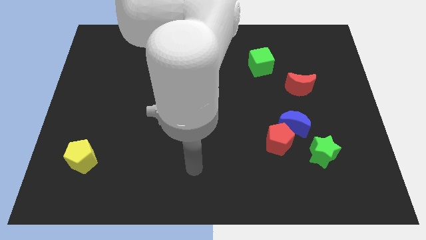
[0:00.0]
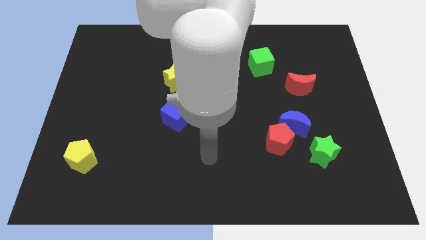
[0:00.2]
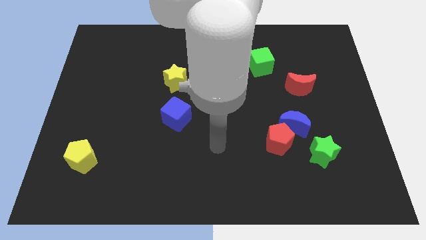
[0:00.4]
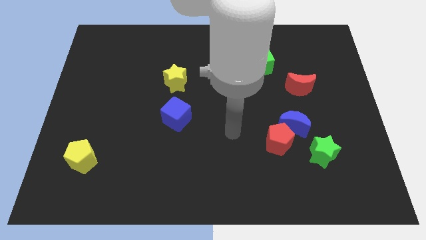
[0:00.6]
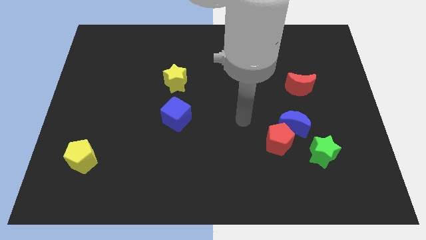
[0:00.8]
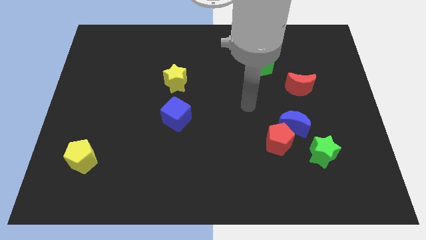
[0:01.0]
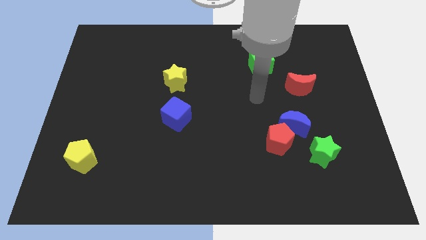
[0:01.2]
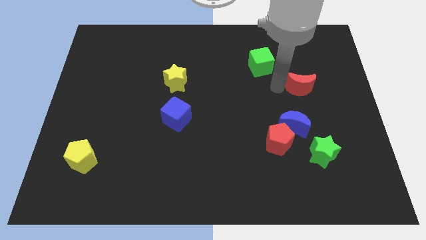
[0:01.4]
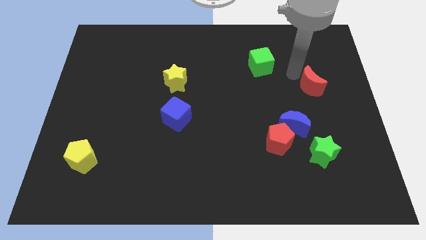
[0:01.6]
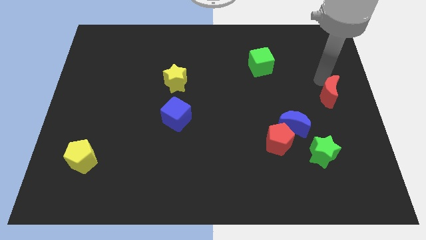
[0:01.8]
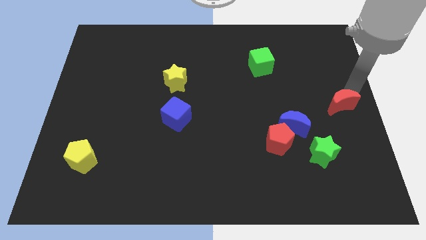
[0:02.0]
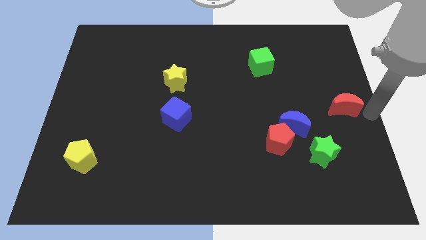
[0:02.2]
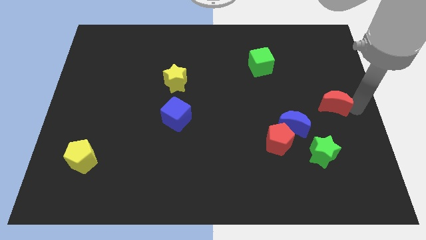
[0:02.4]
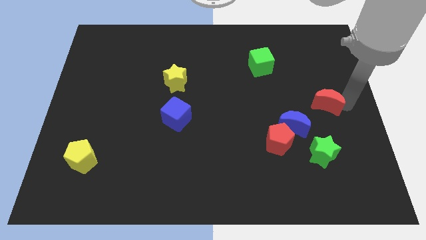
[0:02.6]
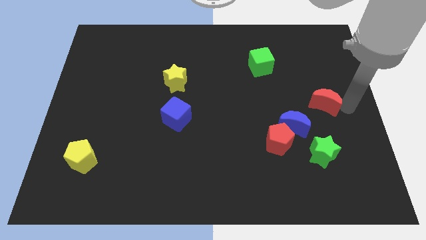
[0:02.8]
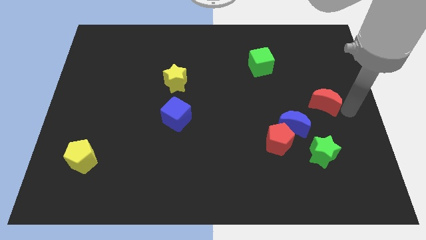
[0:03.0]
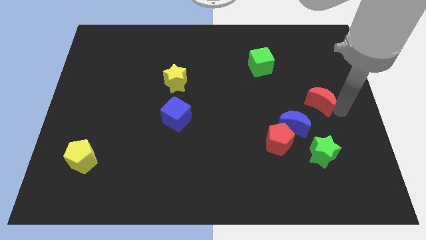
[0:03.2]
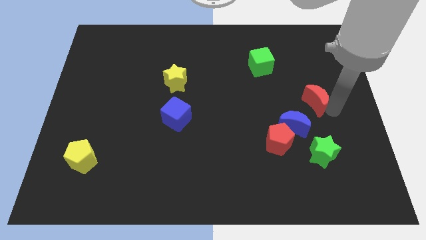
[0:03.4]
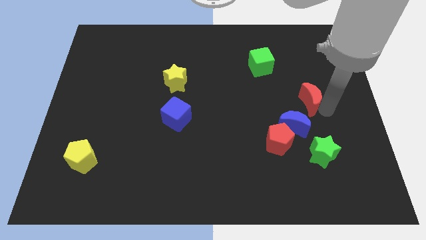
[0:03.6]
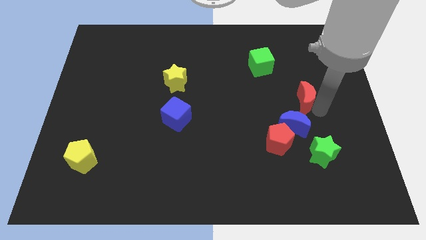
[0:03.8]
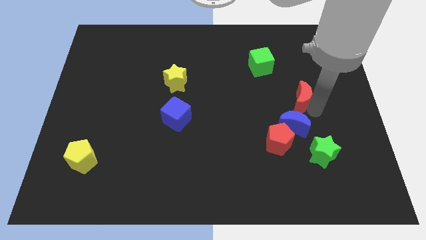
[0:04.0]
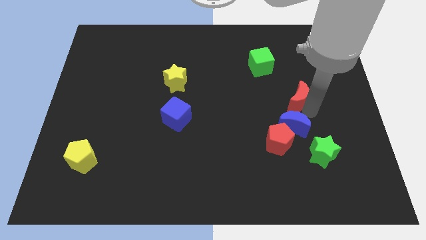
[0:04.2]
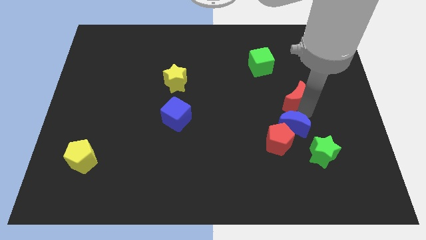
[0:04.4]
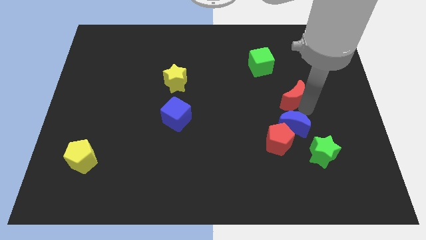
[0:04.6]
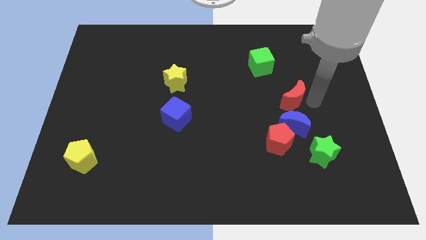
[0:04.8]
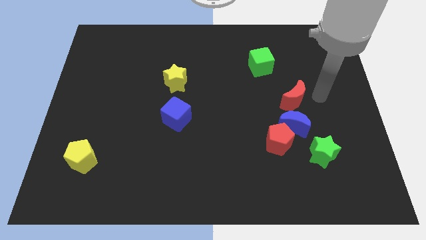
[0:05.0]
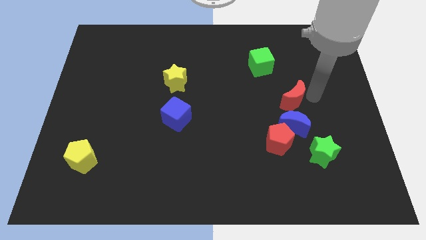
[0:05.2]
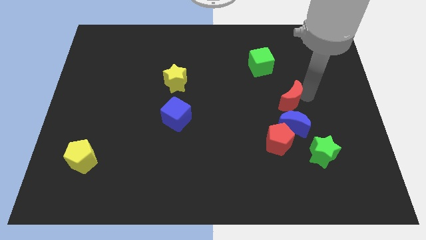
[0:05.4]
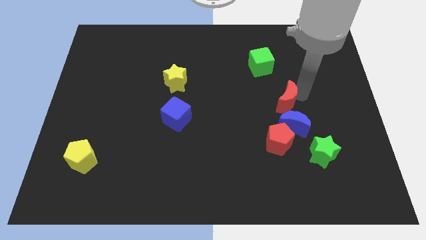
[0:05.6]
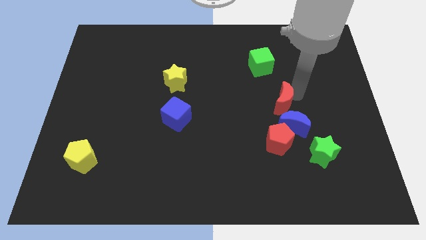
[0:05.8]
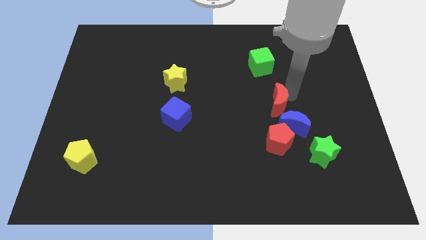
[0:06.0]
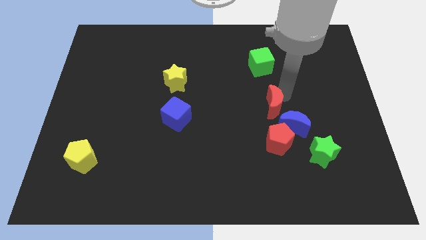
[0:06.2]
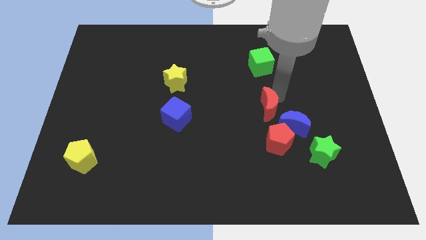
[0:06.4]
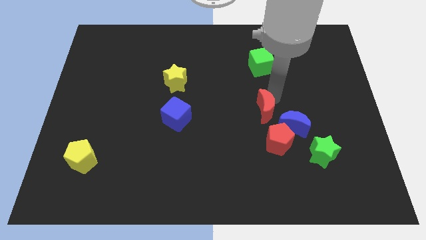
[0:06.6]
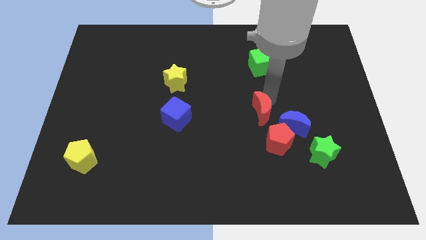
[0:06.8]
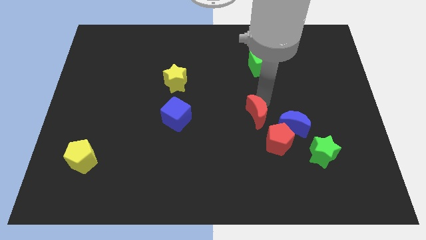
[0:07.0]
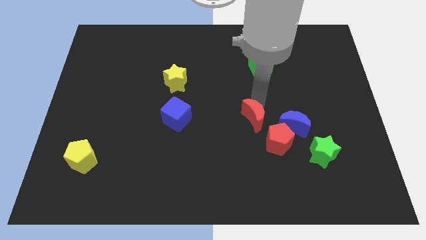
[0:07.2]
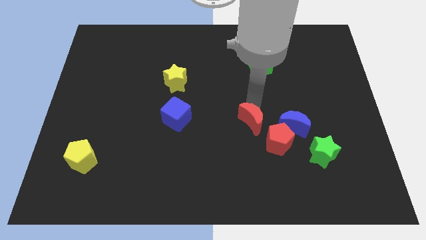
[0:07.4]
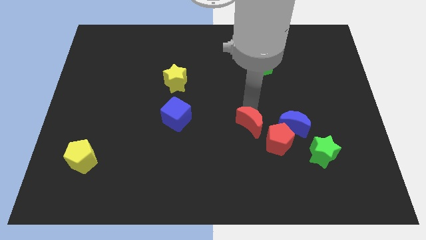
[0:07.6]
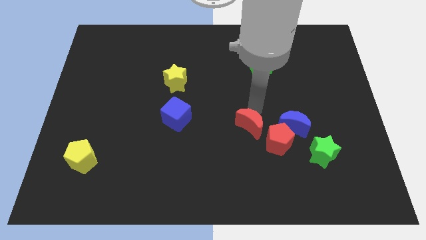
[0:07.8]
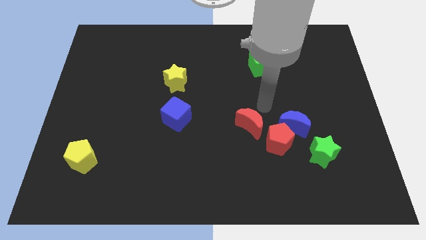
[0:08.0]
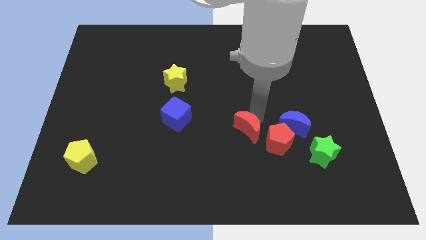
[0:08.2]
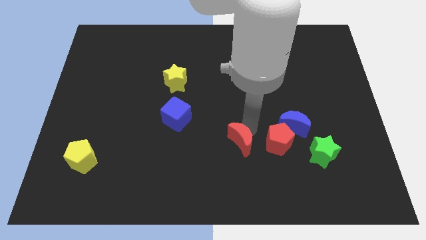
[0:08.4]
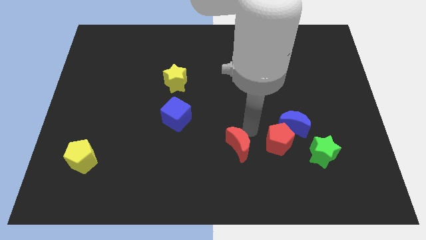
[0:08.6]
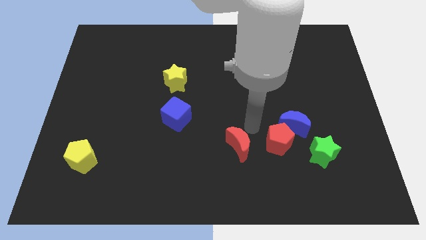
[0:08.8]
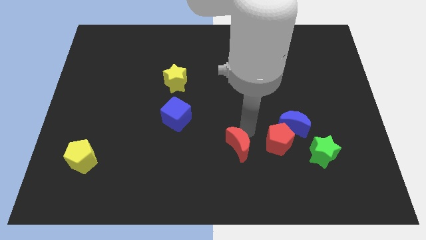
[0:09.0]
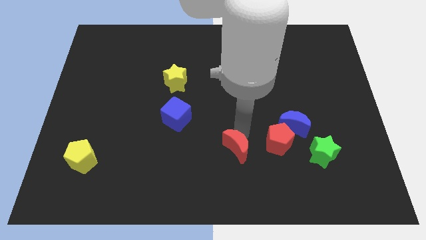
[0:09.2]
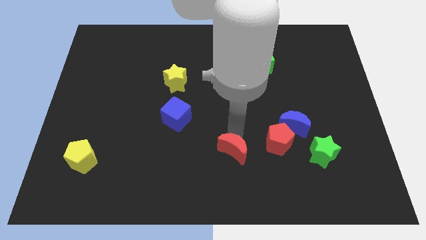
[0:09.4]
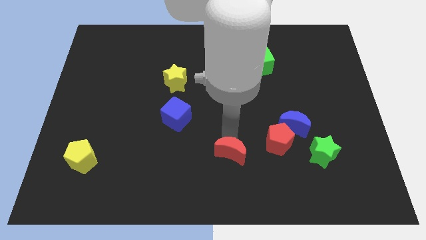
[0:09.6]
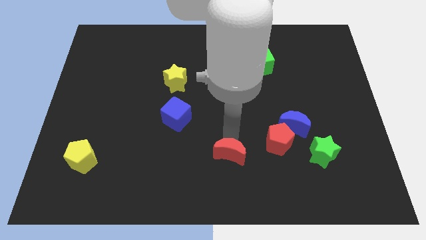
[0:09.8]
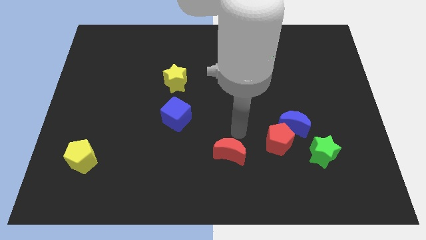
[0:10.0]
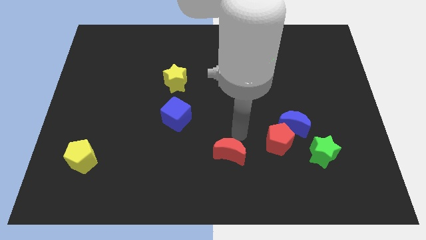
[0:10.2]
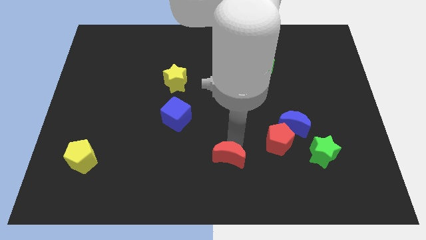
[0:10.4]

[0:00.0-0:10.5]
push the red moon to the bottom side

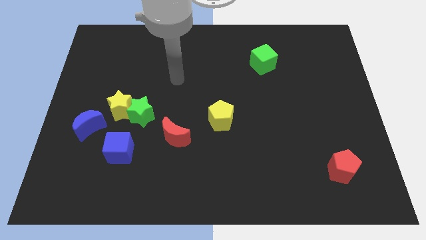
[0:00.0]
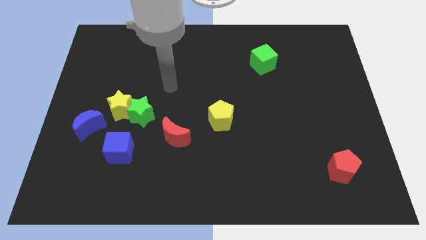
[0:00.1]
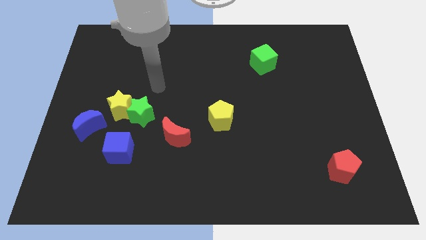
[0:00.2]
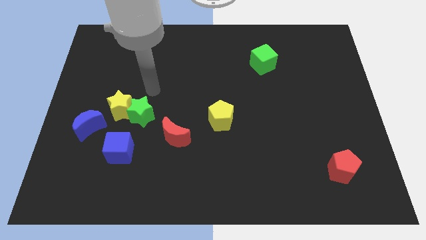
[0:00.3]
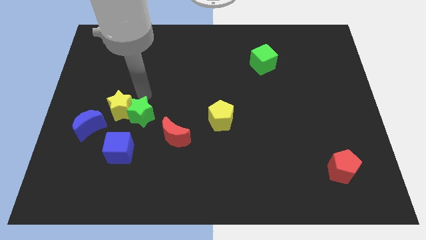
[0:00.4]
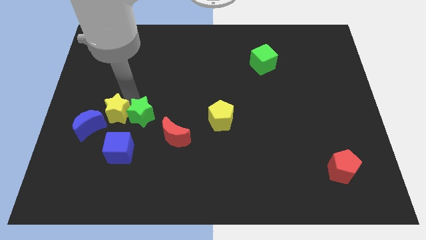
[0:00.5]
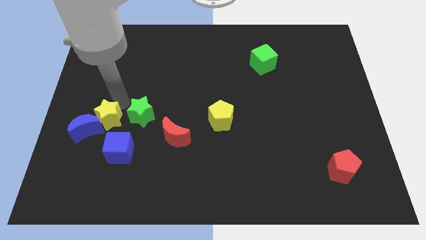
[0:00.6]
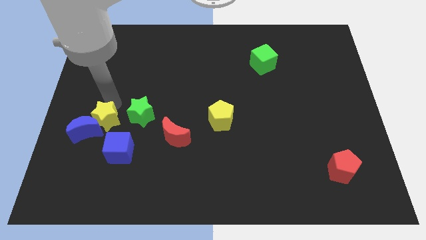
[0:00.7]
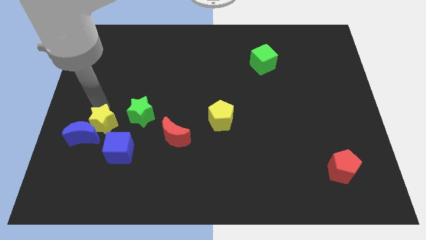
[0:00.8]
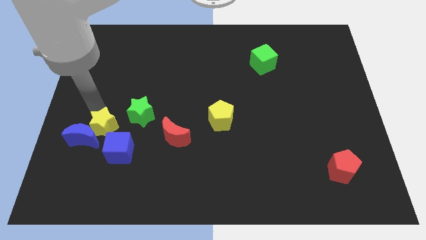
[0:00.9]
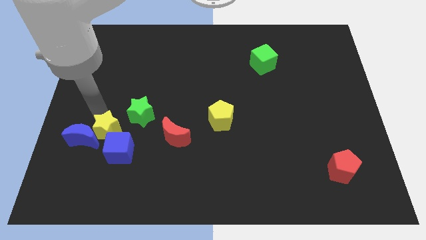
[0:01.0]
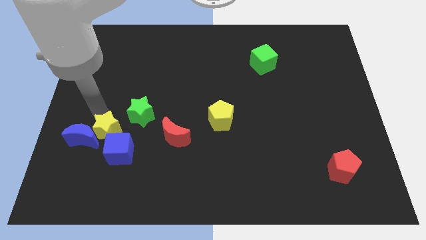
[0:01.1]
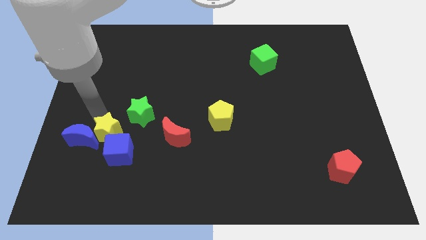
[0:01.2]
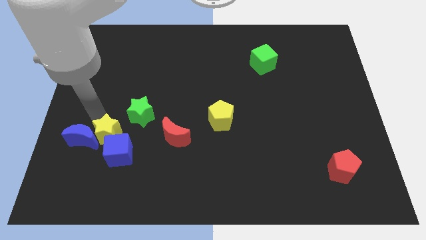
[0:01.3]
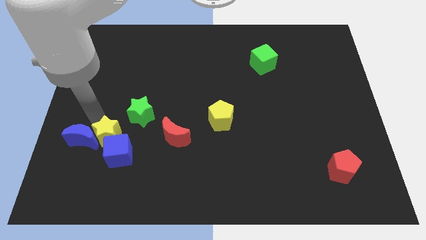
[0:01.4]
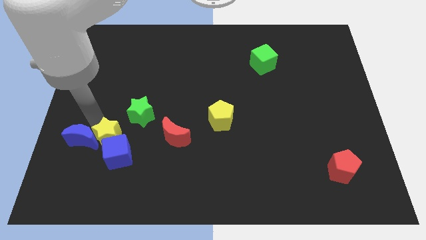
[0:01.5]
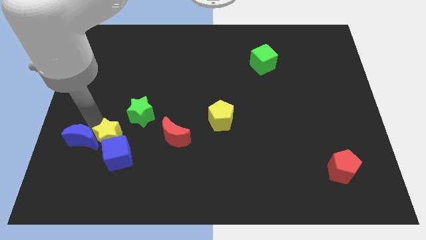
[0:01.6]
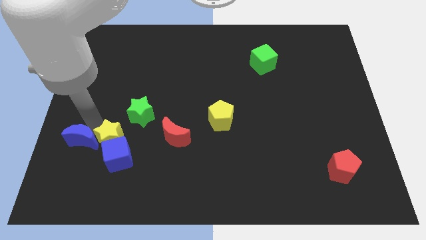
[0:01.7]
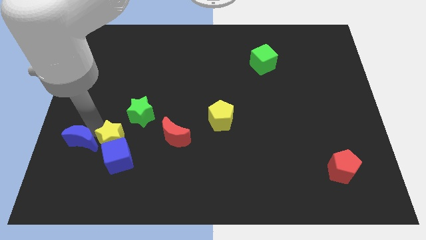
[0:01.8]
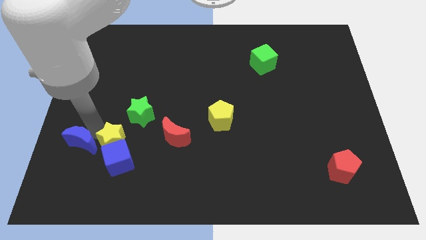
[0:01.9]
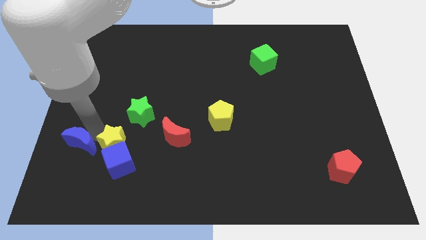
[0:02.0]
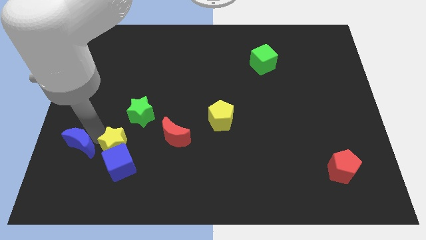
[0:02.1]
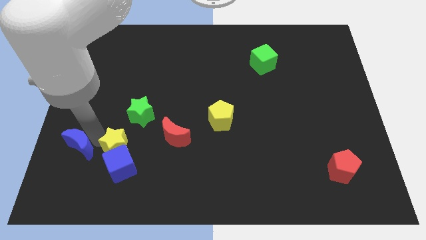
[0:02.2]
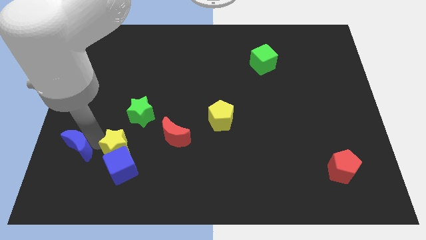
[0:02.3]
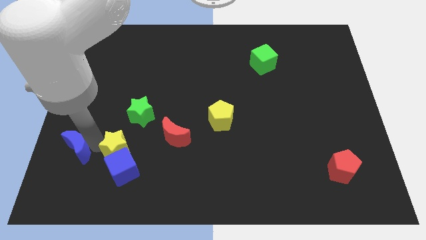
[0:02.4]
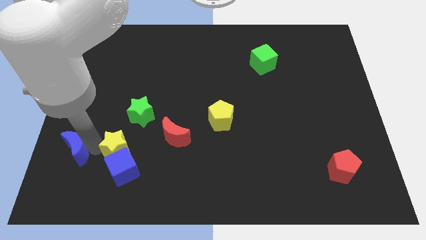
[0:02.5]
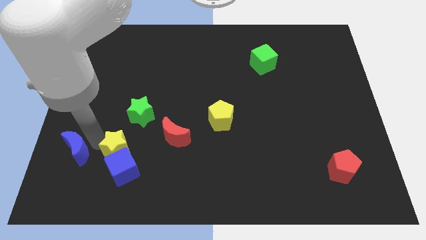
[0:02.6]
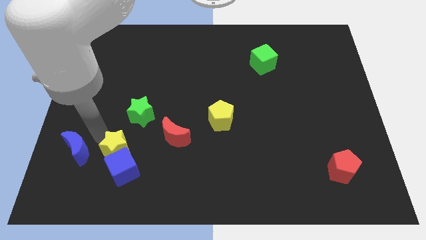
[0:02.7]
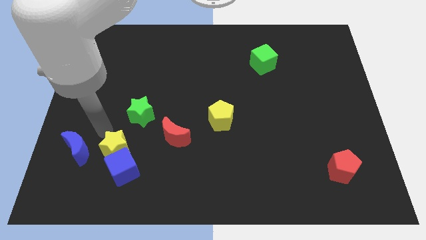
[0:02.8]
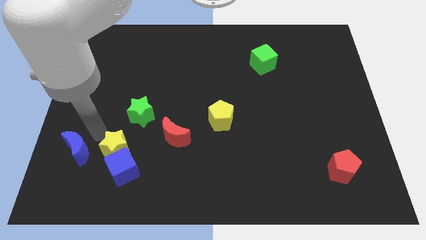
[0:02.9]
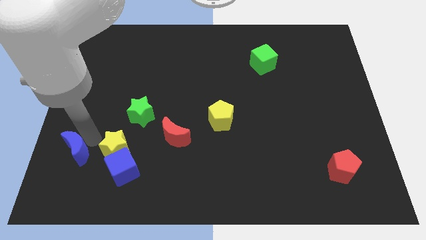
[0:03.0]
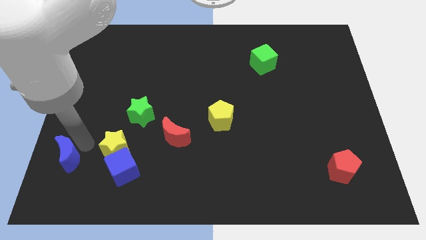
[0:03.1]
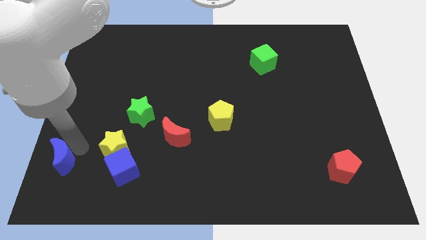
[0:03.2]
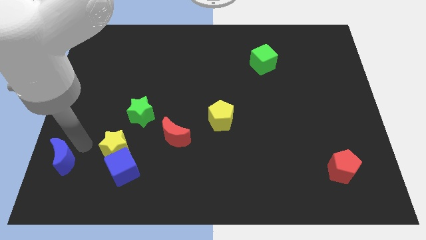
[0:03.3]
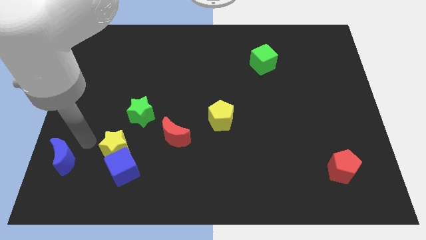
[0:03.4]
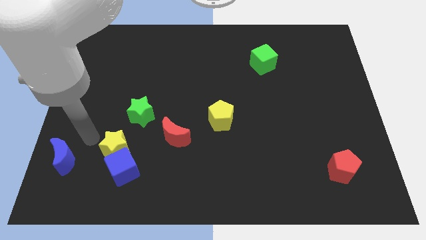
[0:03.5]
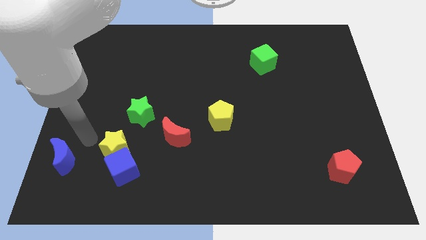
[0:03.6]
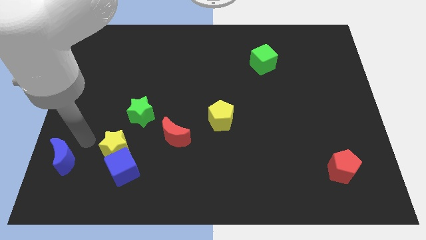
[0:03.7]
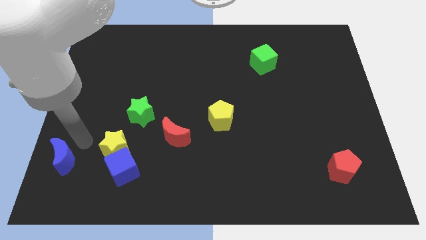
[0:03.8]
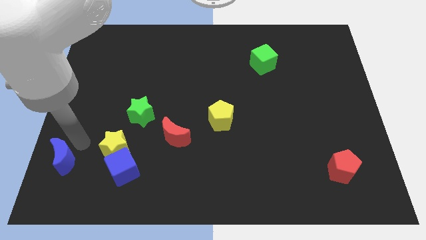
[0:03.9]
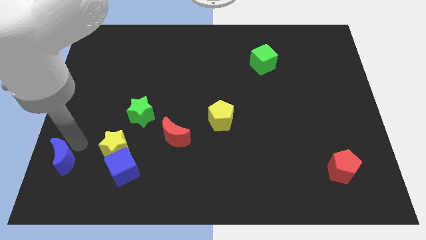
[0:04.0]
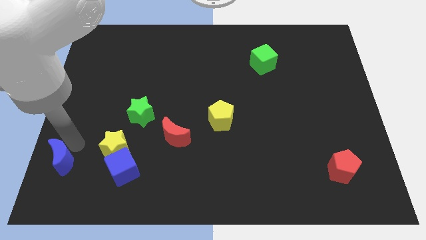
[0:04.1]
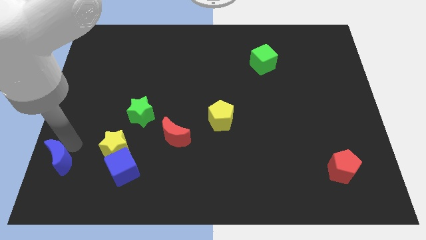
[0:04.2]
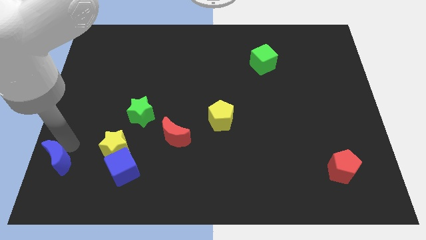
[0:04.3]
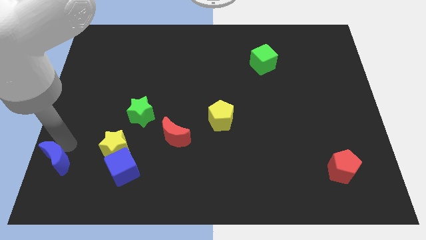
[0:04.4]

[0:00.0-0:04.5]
slide the blue moon to the bottom left
